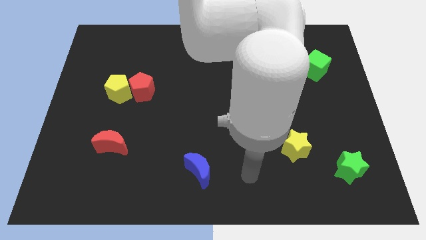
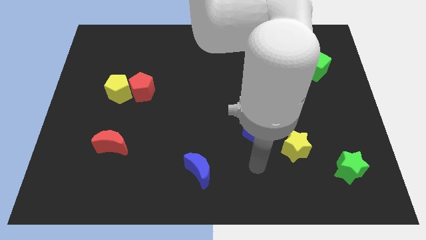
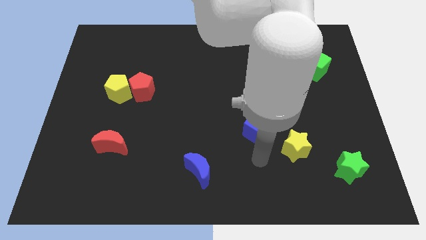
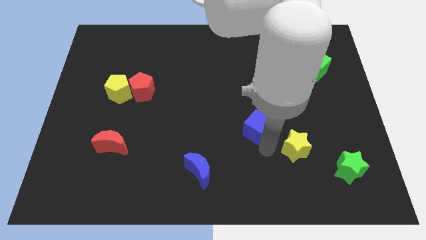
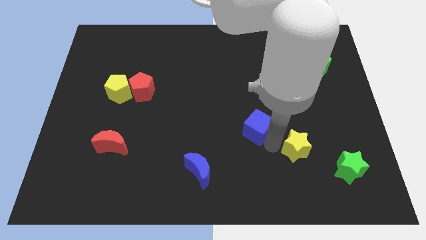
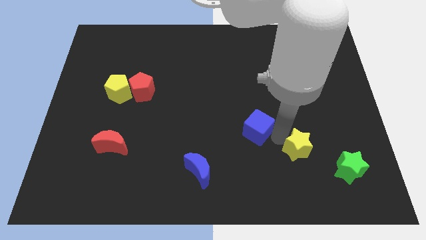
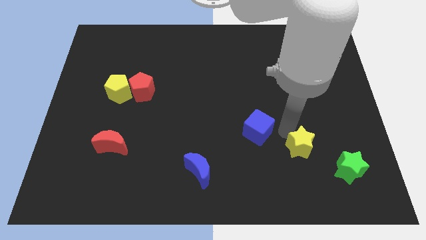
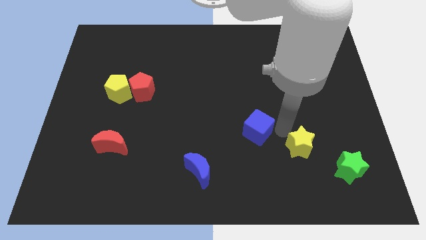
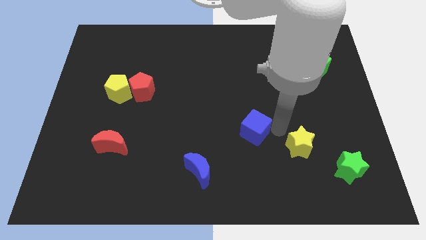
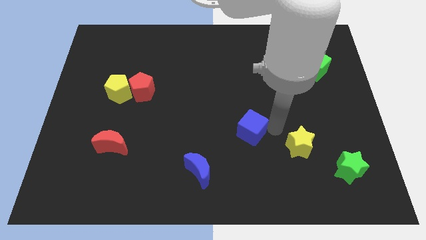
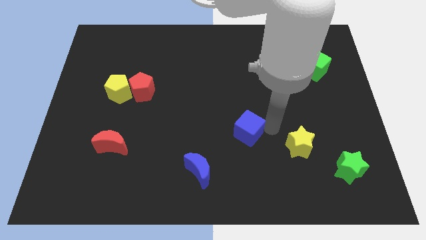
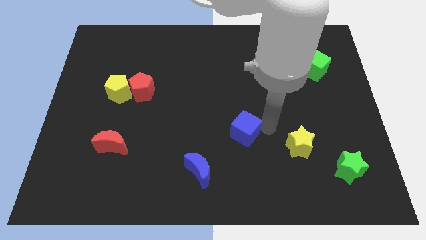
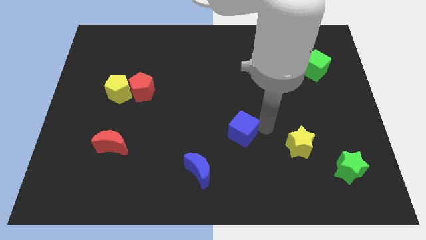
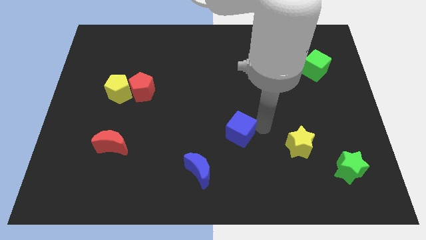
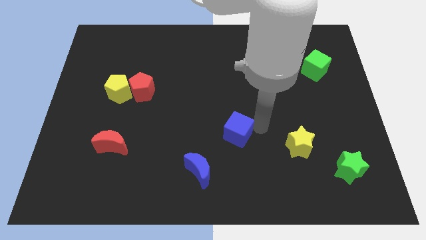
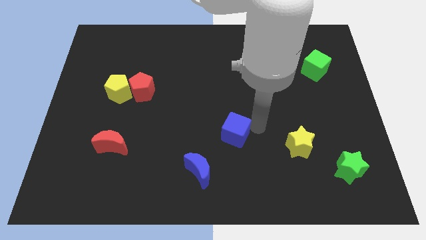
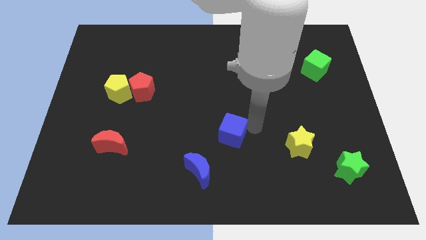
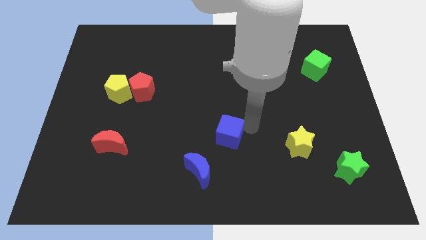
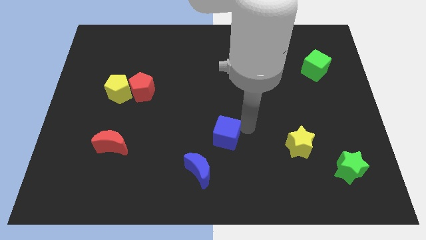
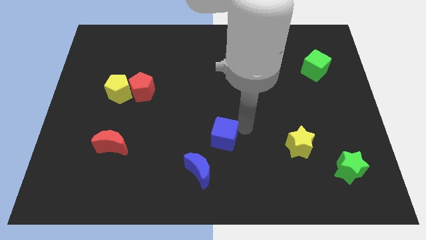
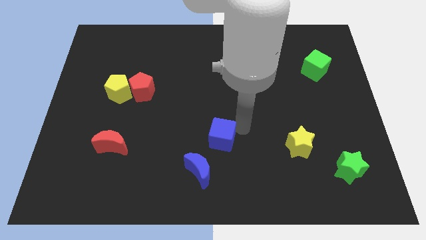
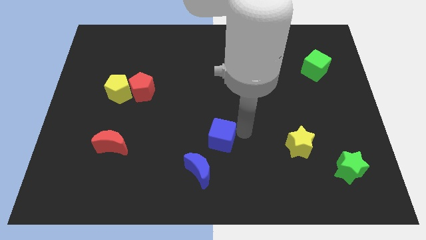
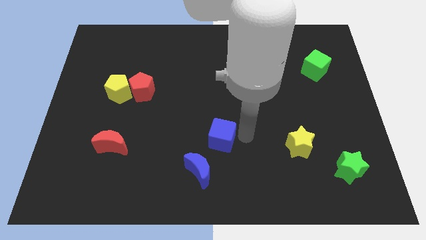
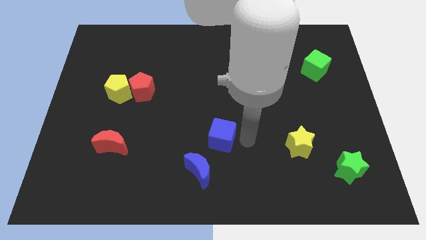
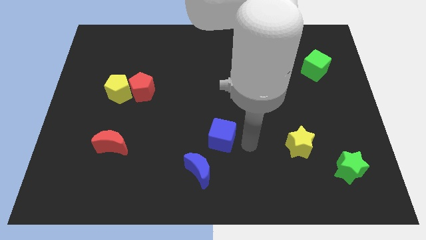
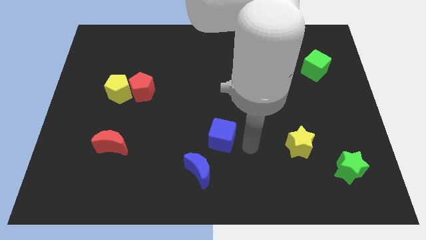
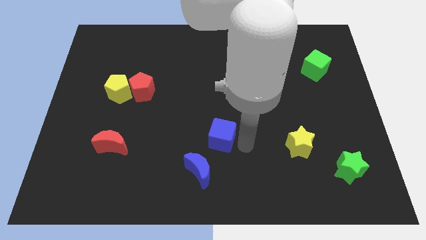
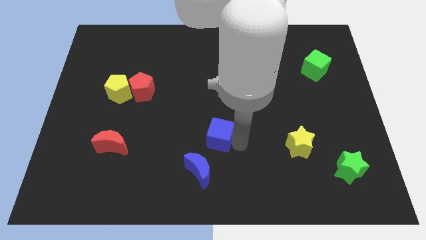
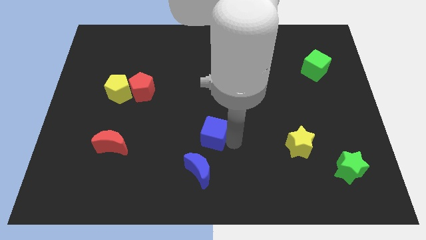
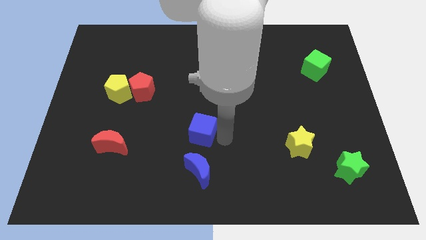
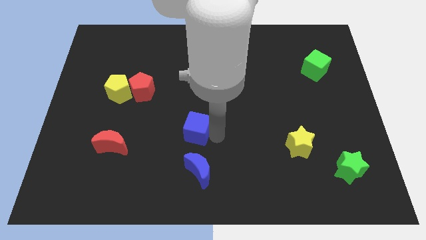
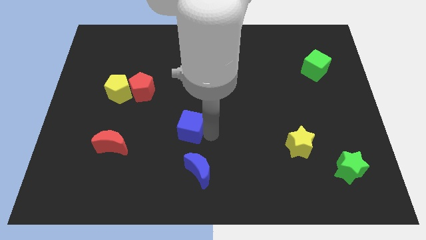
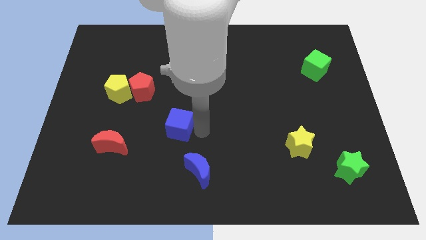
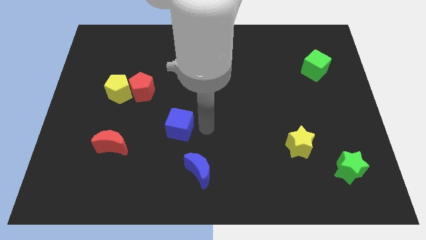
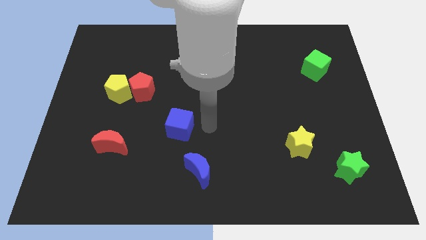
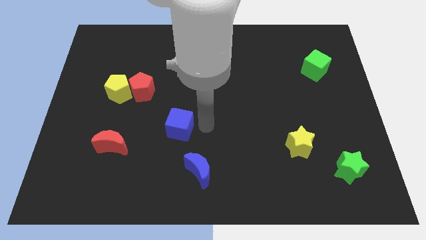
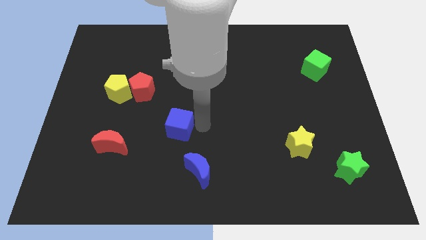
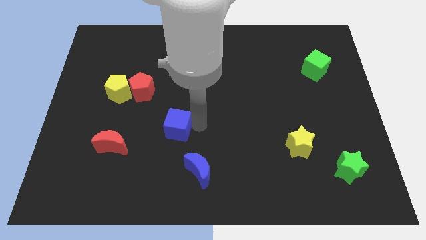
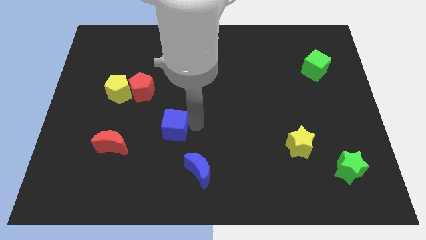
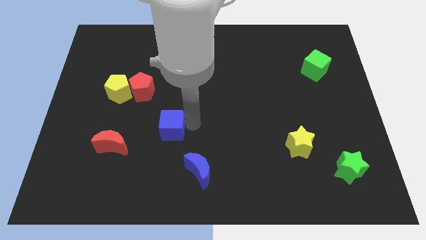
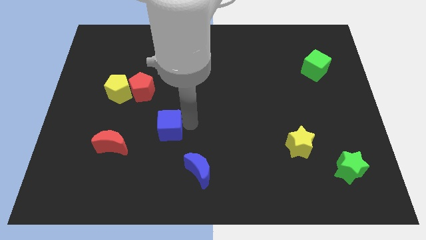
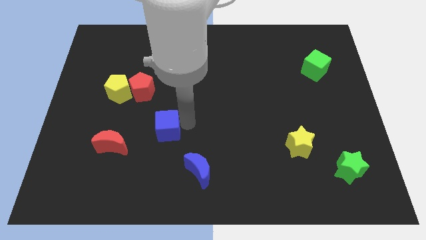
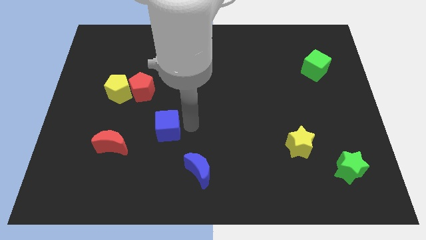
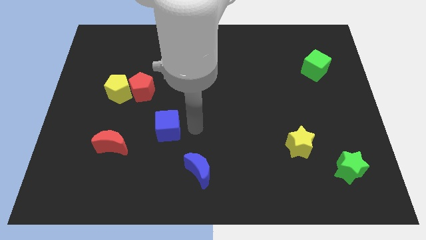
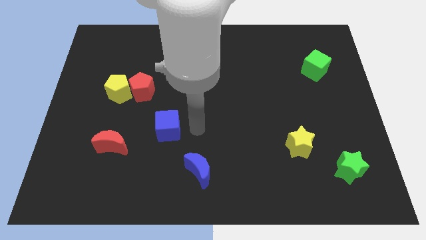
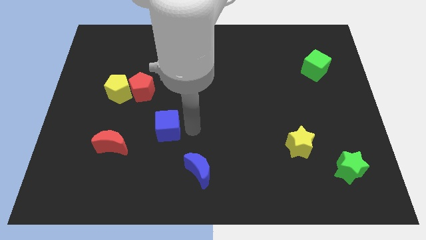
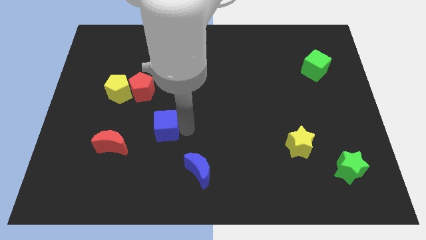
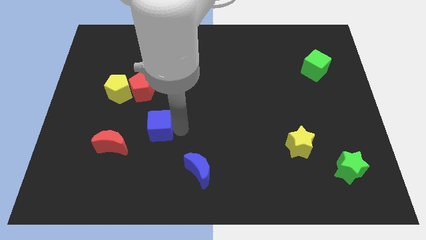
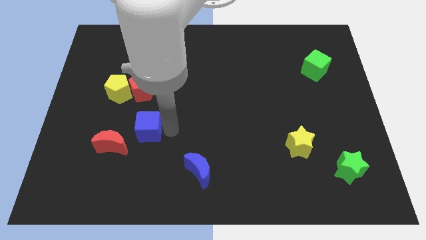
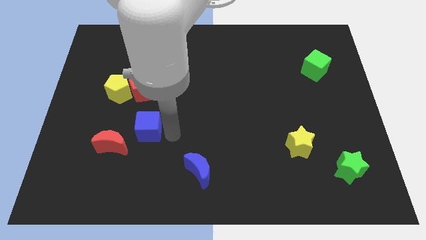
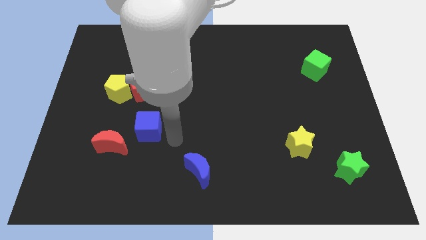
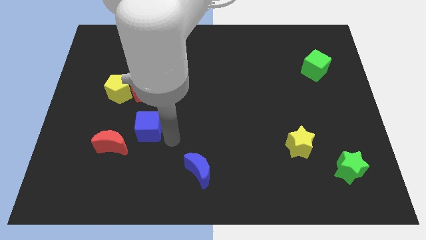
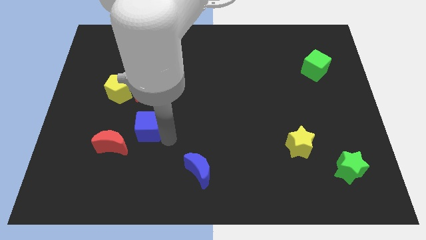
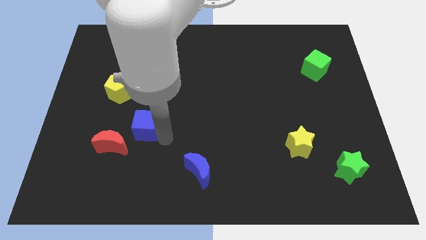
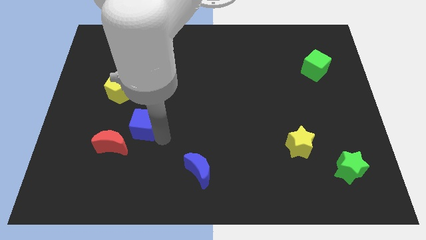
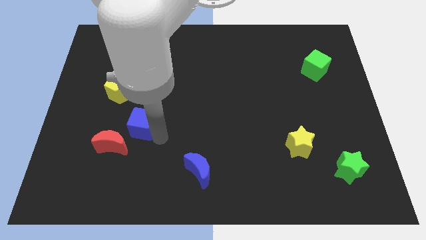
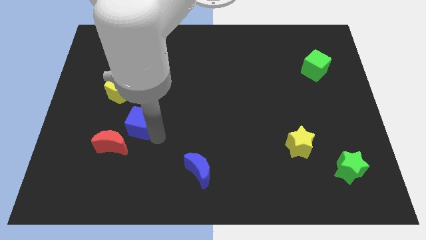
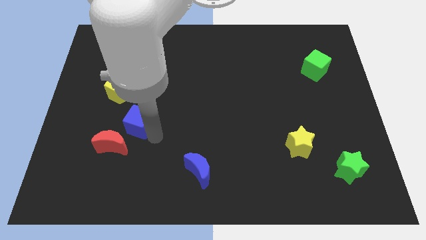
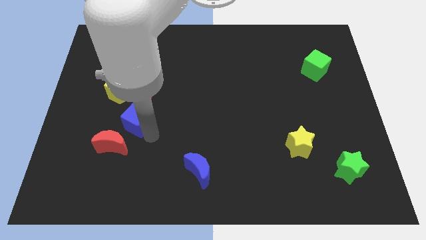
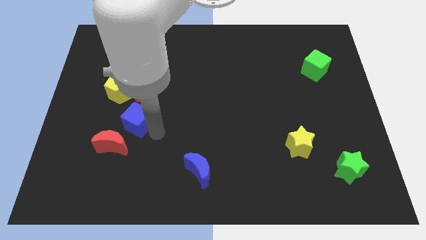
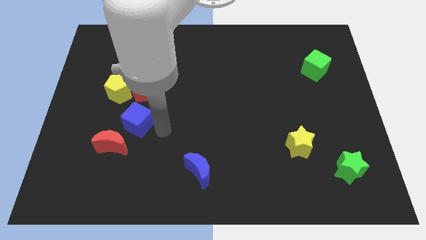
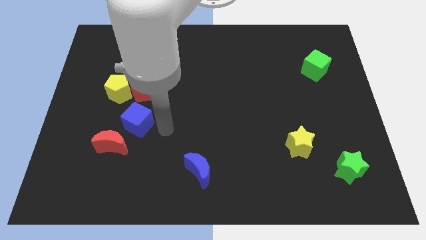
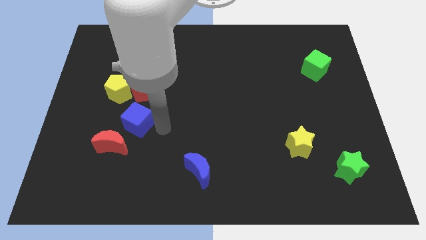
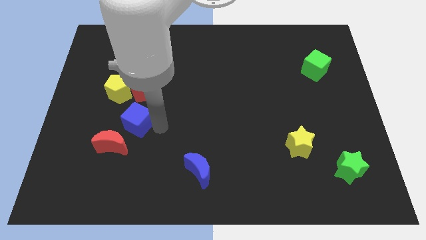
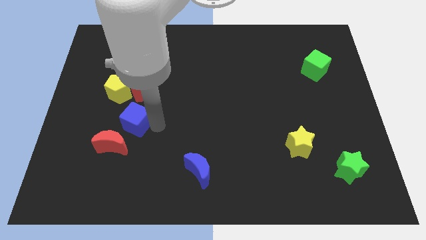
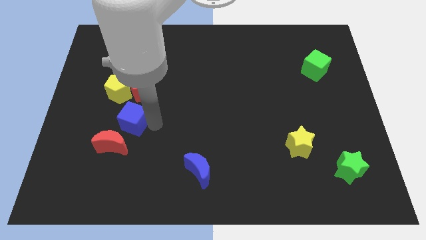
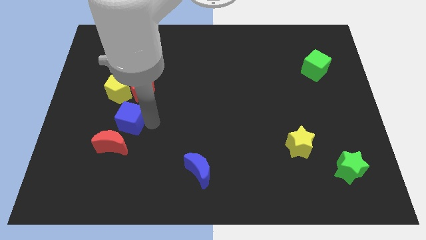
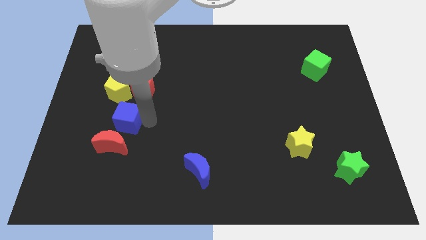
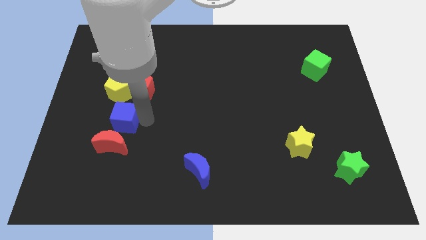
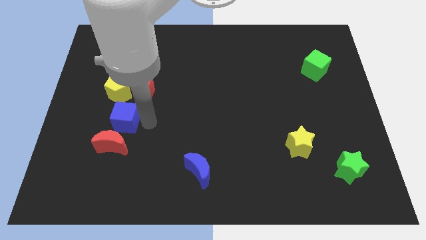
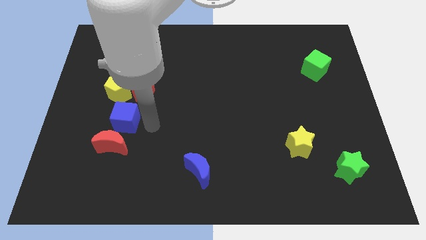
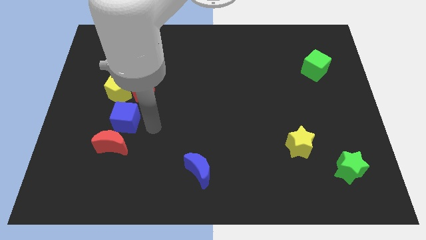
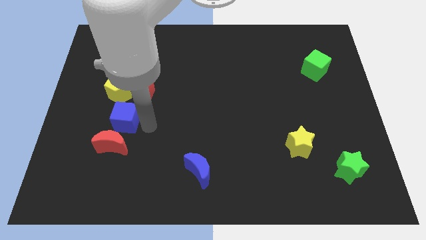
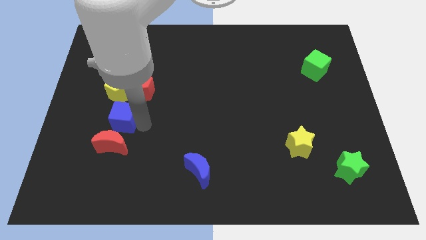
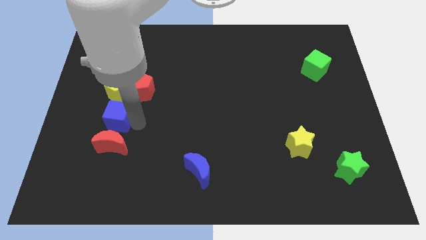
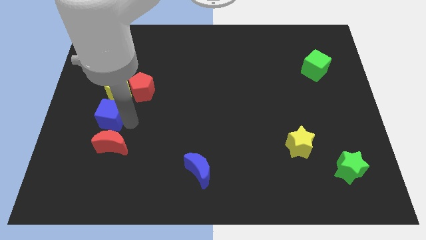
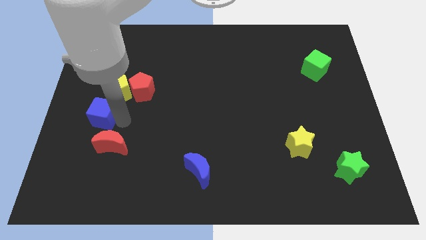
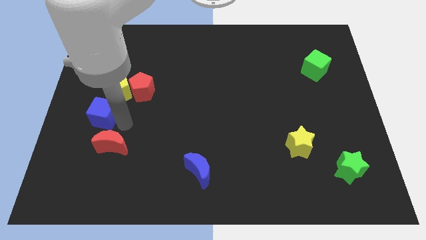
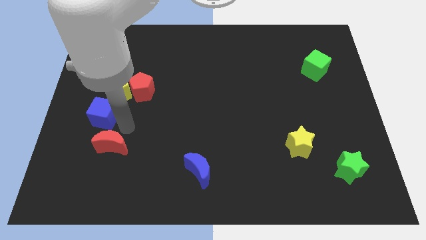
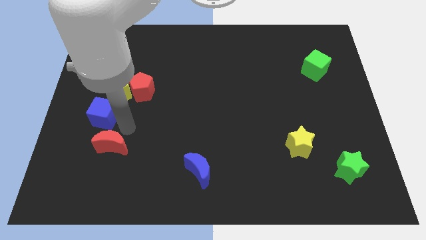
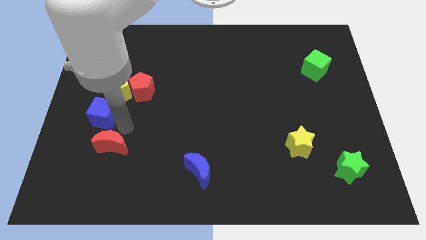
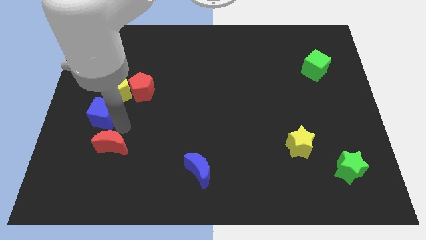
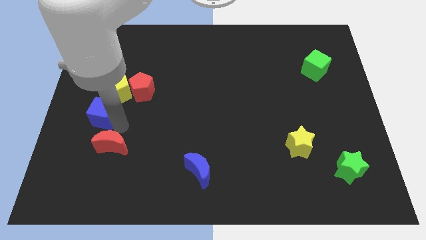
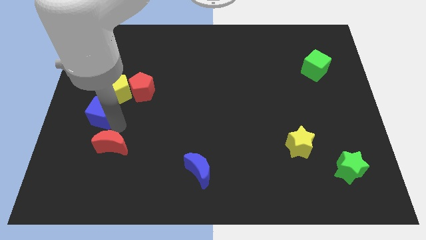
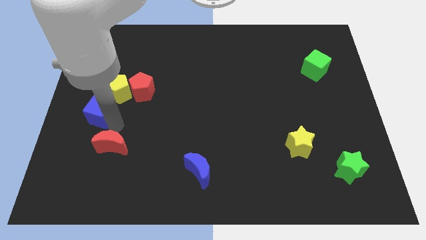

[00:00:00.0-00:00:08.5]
put the blue cube to the left side
